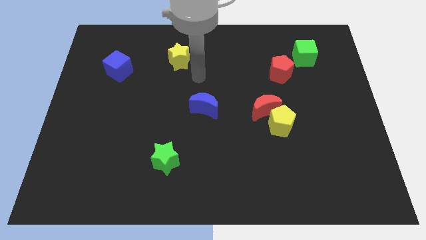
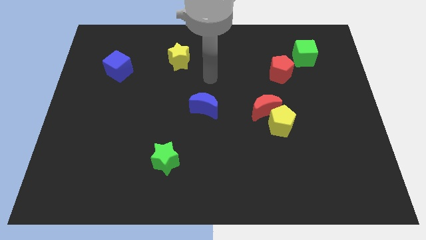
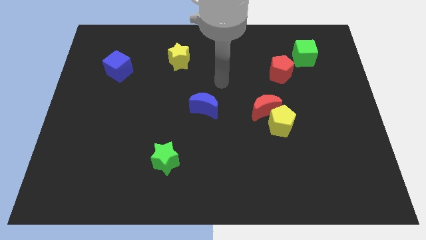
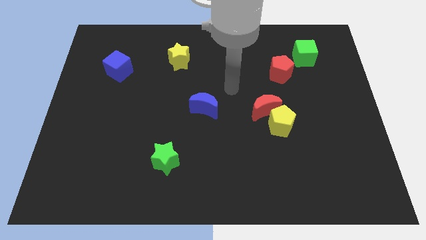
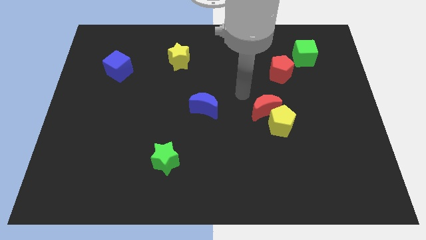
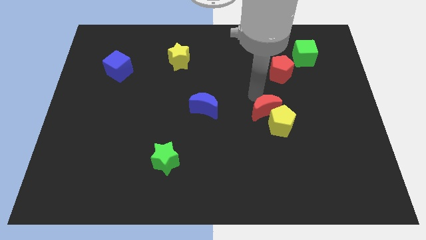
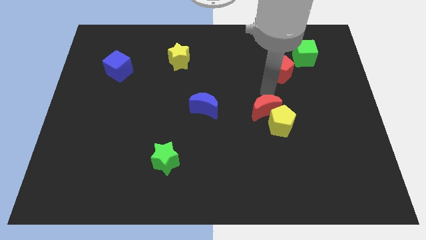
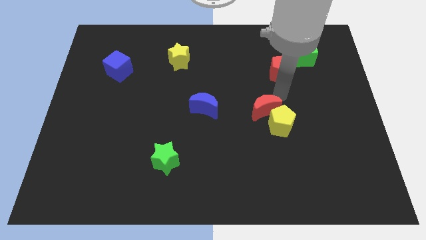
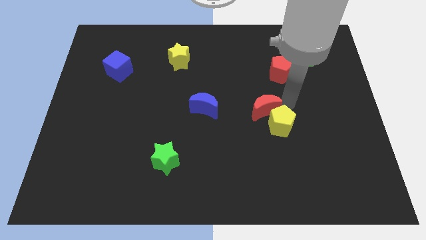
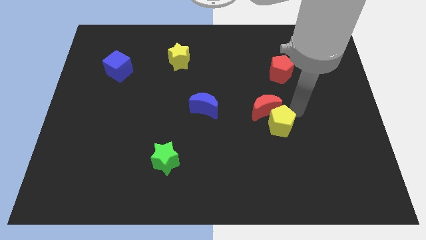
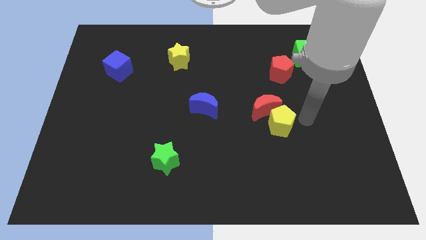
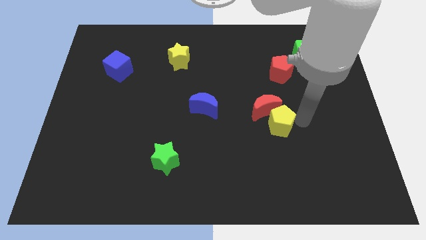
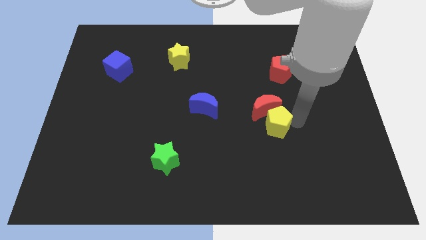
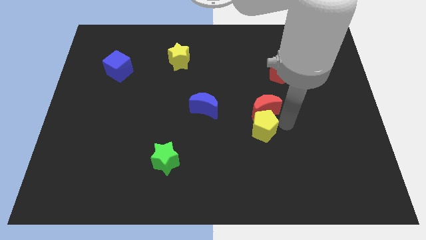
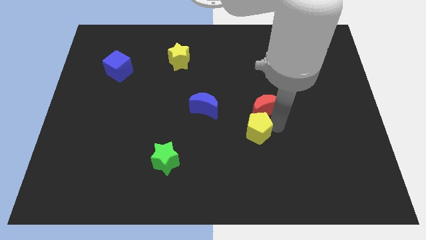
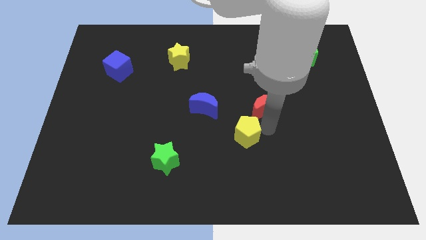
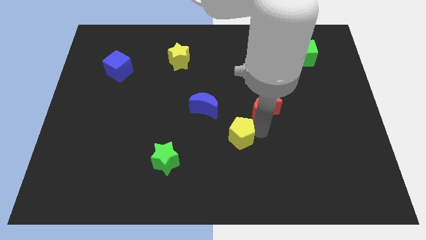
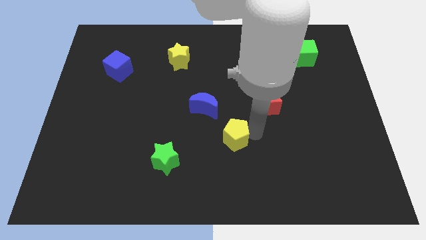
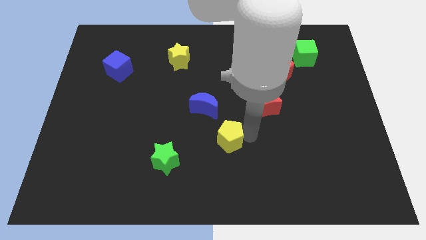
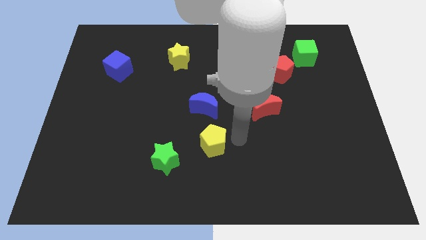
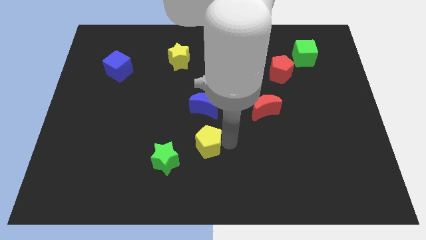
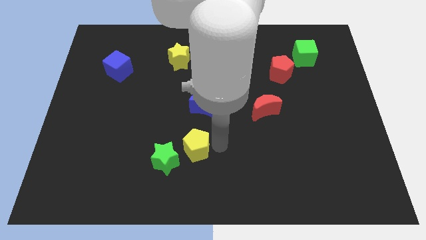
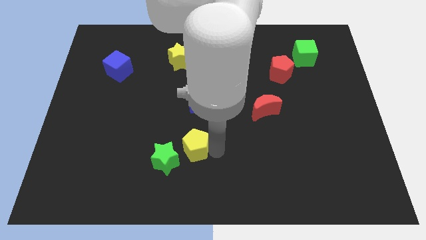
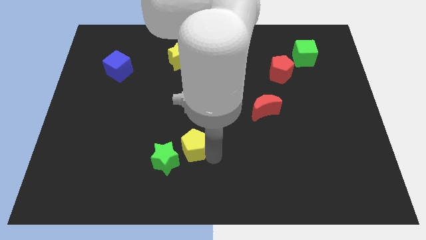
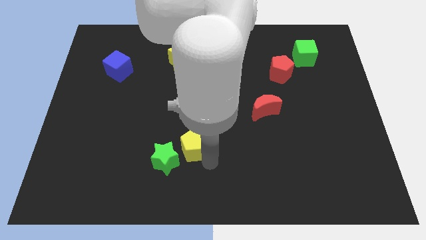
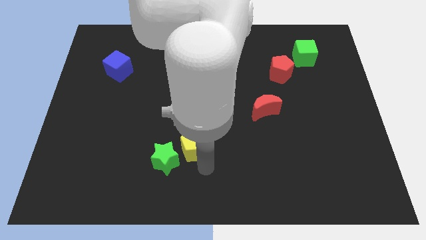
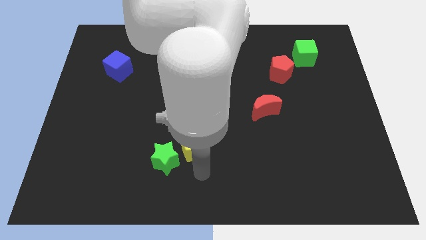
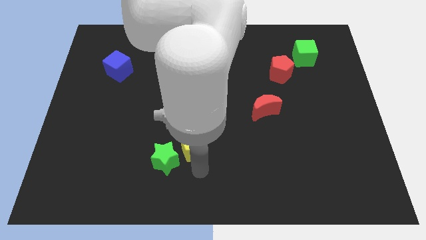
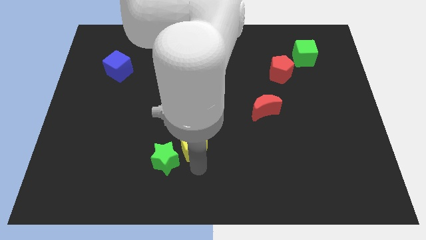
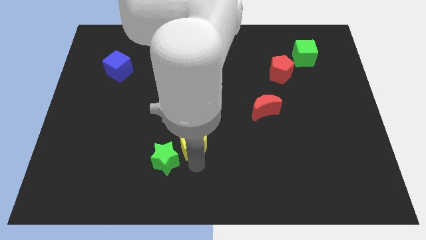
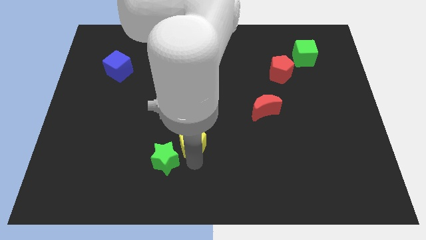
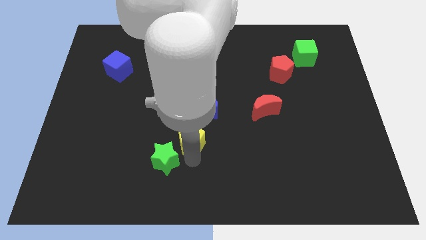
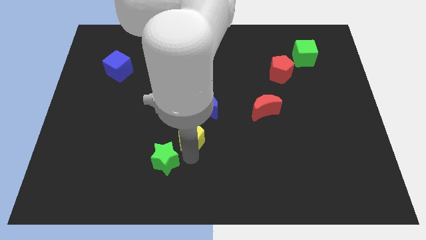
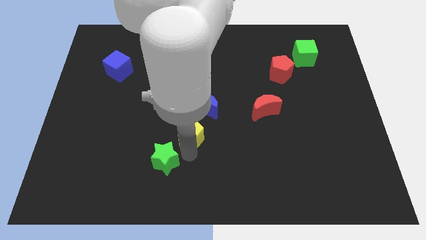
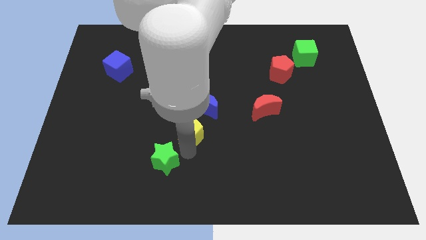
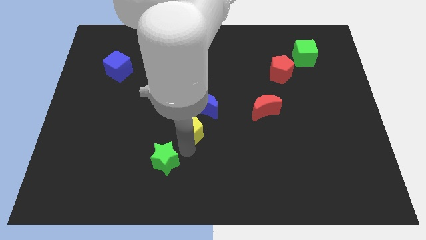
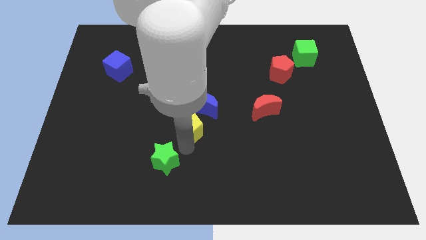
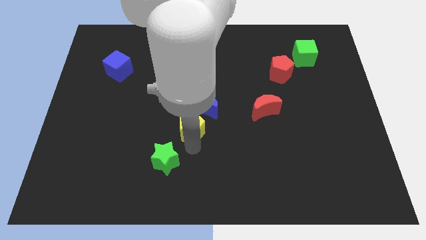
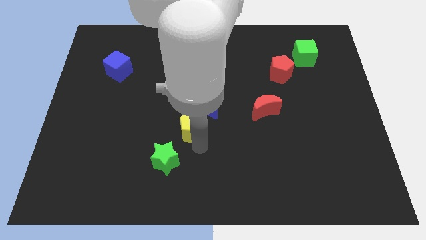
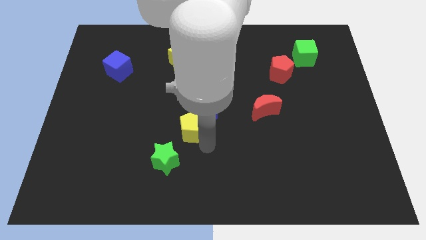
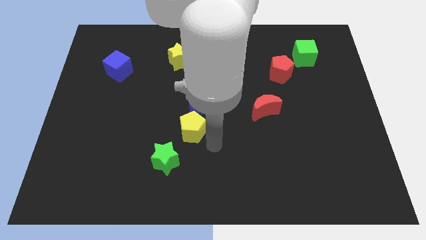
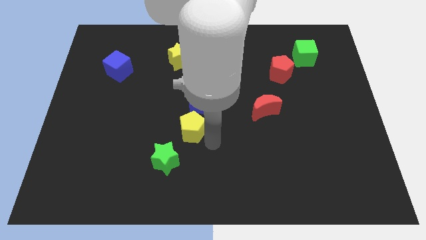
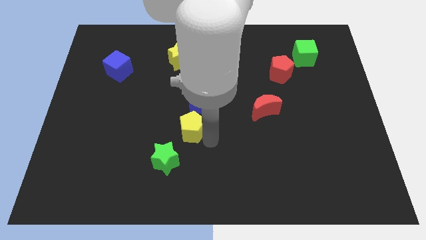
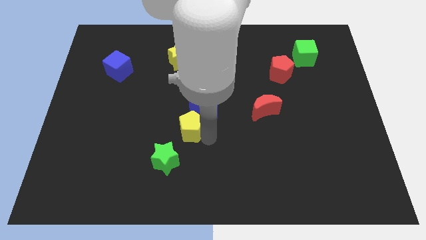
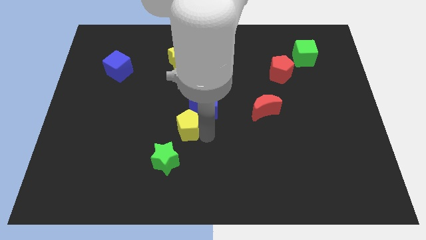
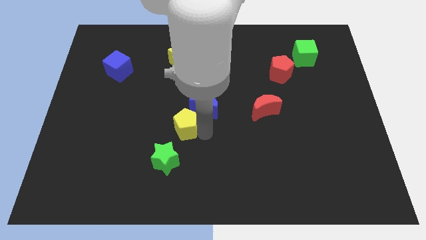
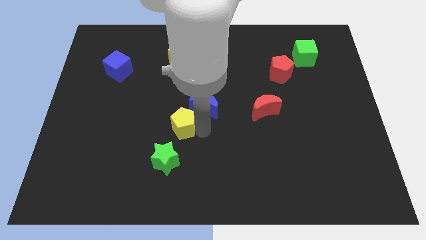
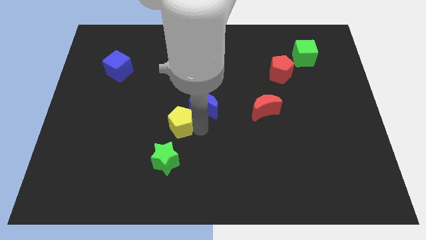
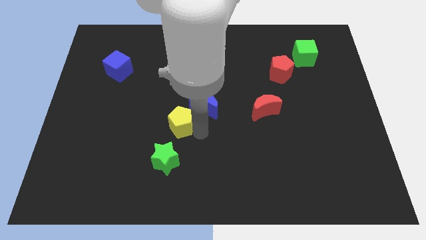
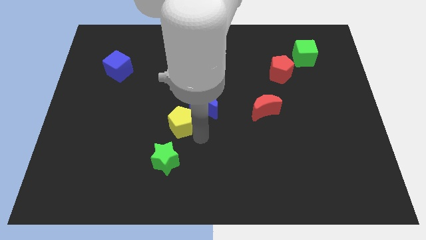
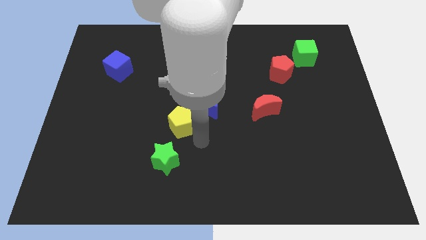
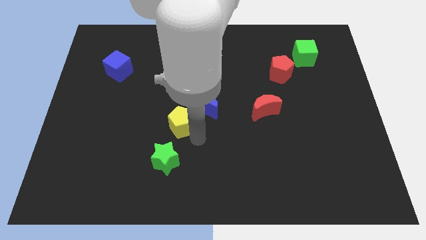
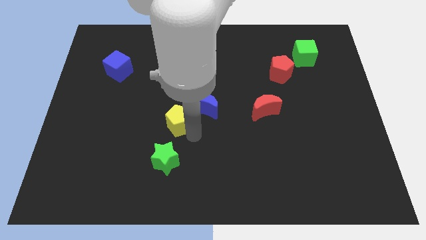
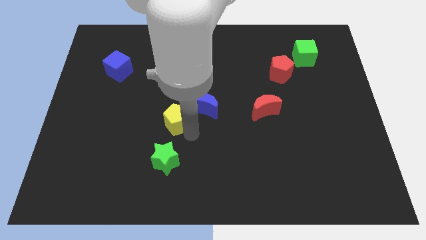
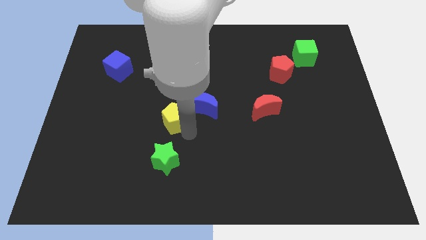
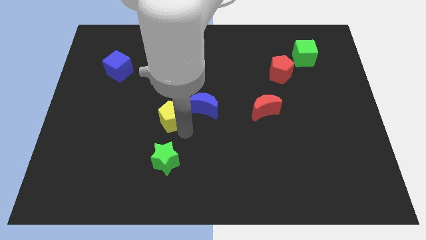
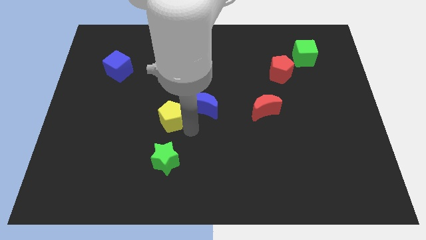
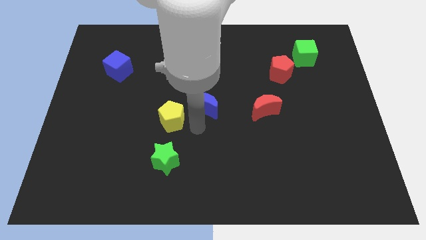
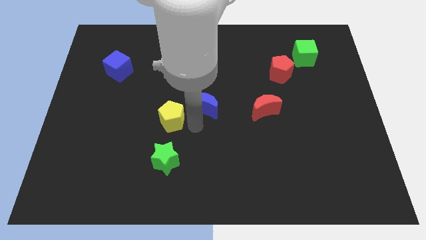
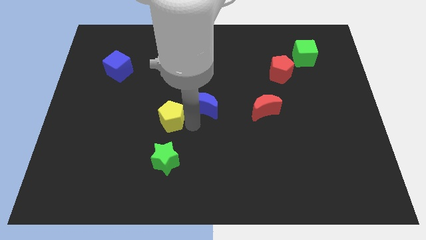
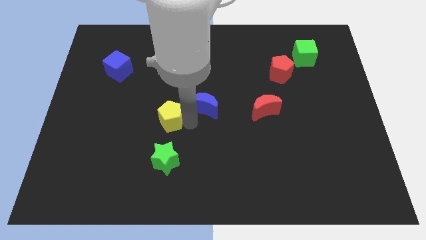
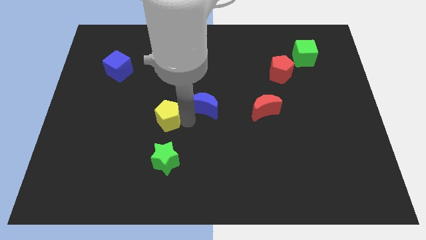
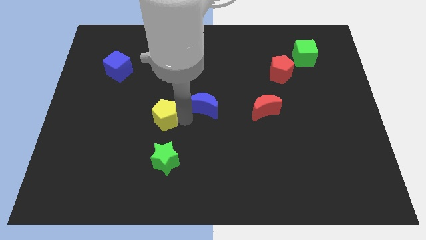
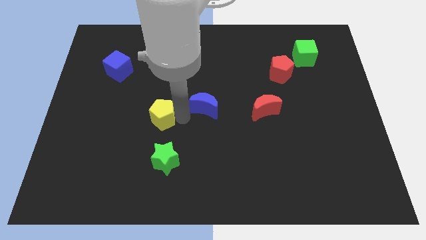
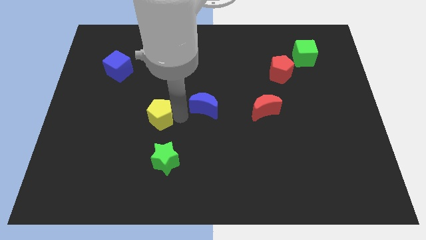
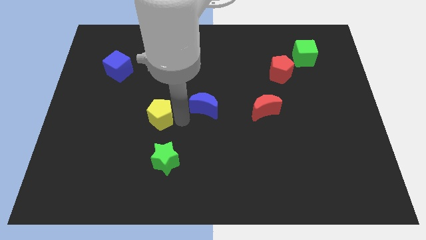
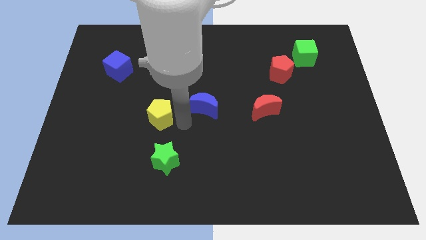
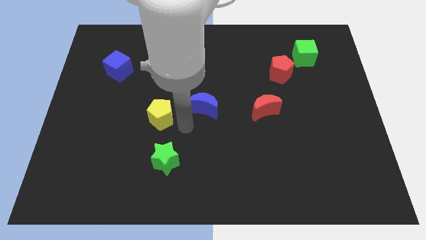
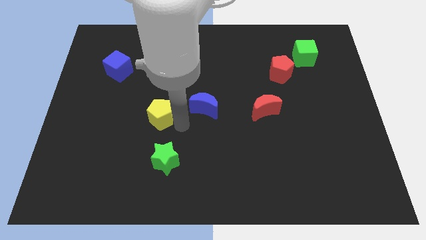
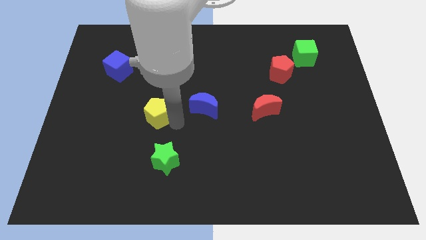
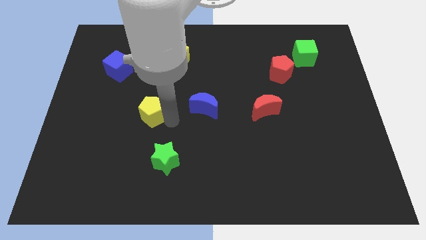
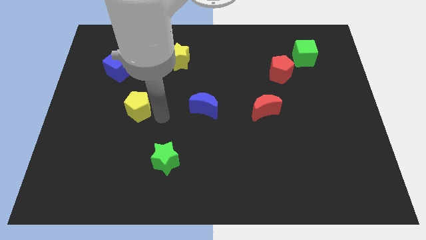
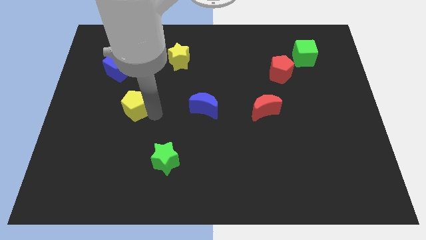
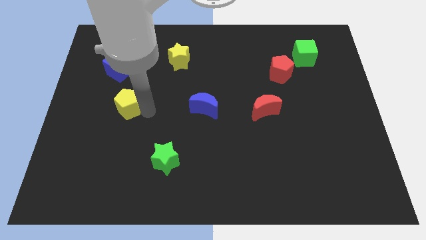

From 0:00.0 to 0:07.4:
push the yellow pentagon to the bottom side of the blue cube
